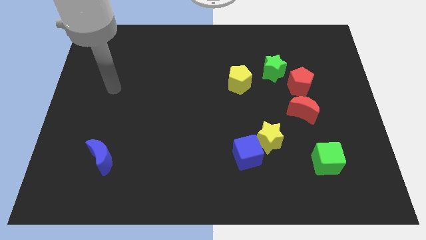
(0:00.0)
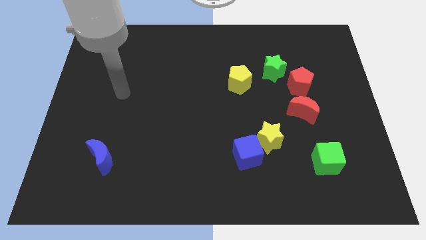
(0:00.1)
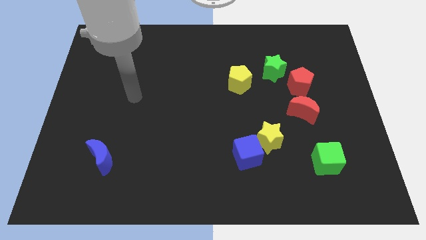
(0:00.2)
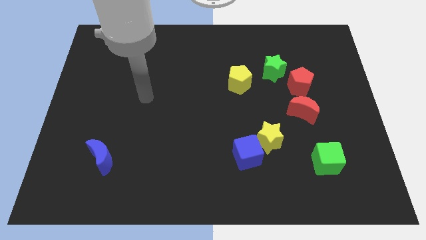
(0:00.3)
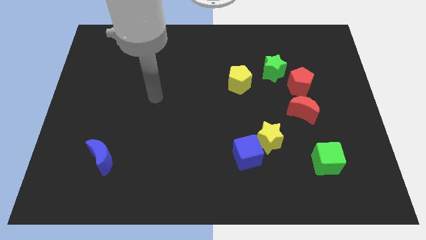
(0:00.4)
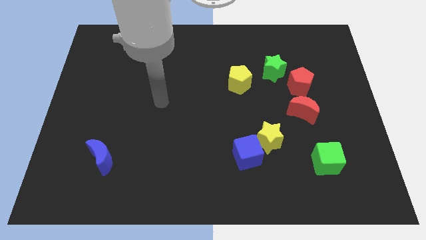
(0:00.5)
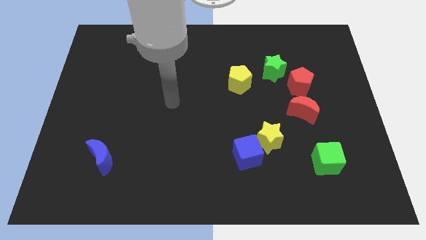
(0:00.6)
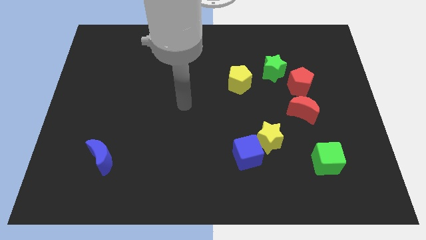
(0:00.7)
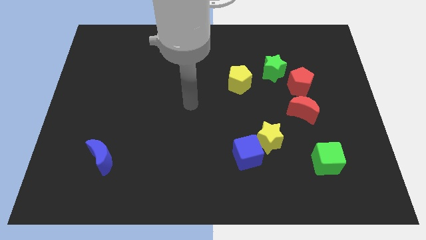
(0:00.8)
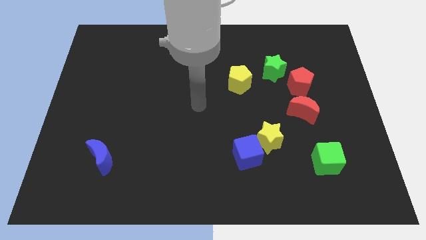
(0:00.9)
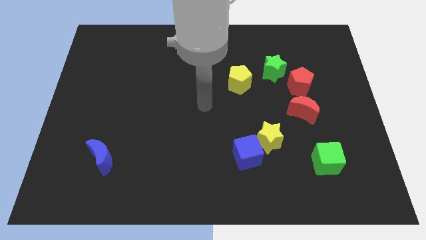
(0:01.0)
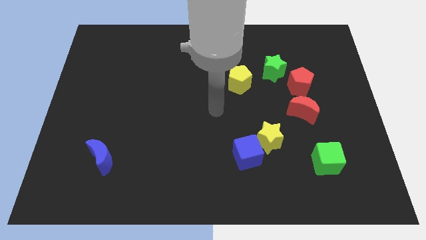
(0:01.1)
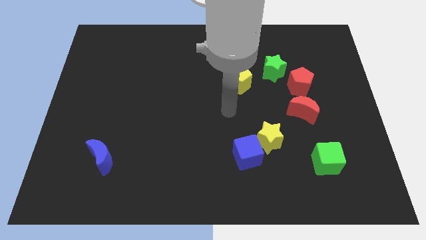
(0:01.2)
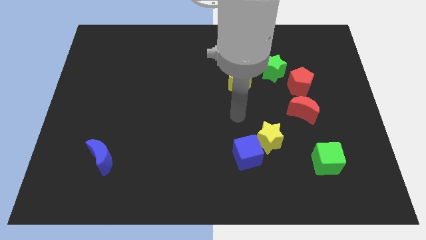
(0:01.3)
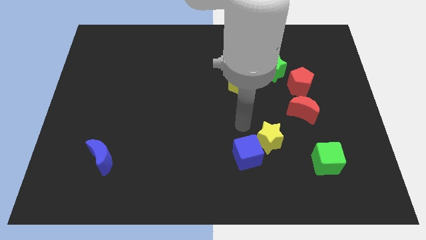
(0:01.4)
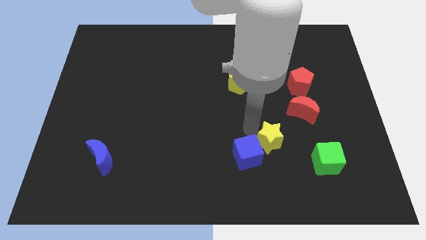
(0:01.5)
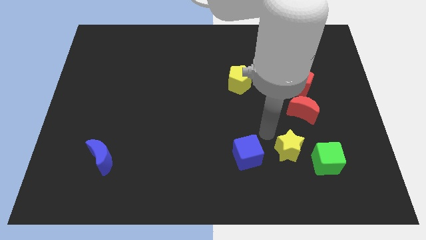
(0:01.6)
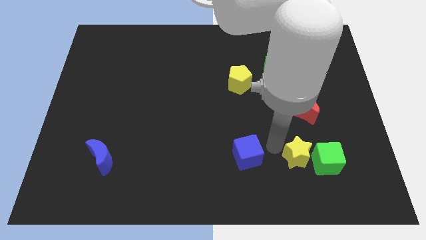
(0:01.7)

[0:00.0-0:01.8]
pull the blue cube apart from the yellow star

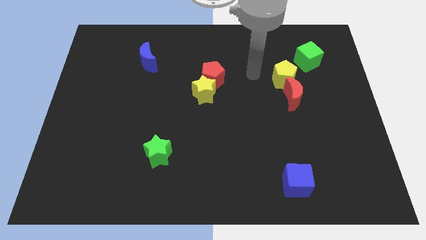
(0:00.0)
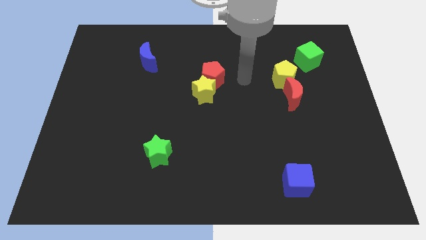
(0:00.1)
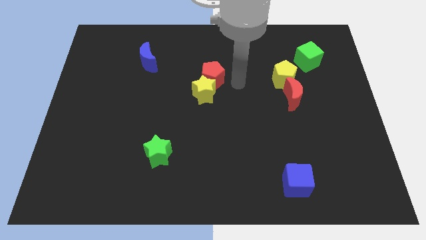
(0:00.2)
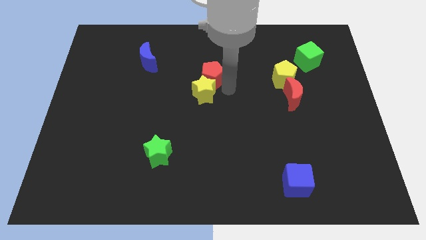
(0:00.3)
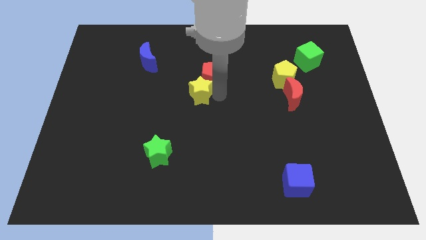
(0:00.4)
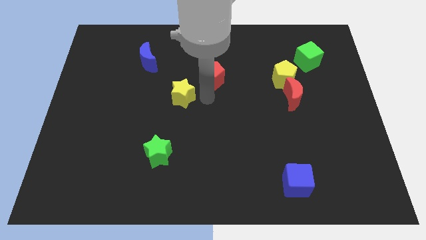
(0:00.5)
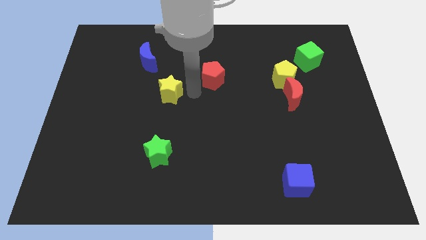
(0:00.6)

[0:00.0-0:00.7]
separate the red pentagon from the yellow star

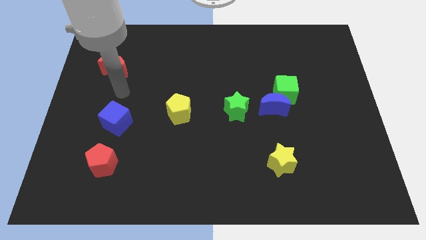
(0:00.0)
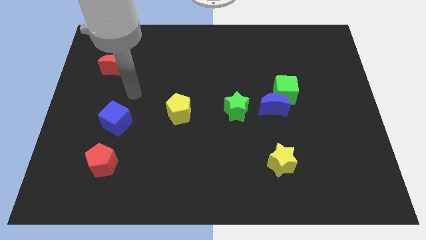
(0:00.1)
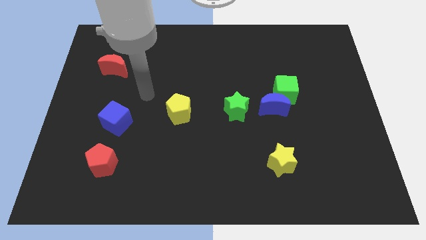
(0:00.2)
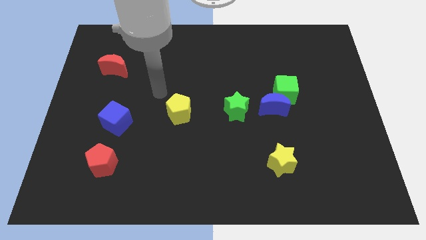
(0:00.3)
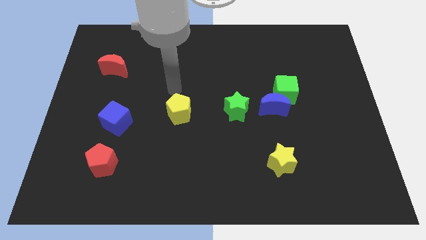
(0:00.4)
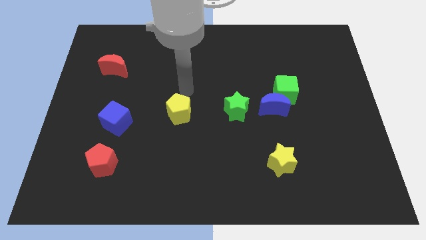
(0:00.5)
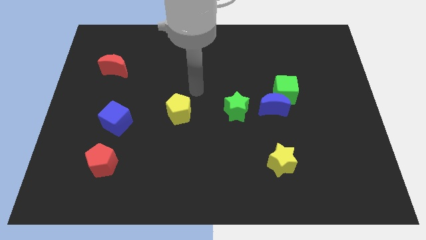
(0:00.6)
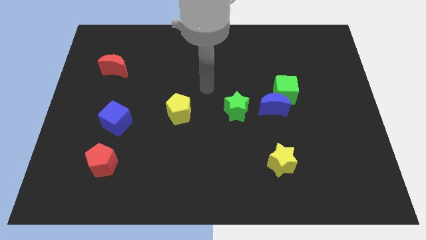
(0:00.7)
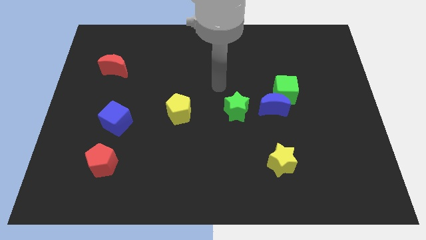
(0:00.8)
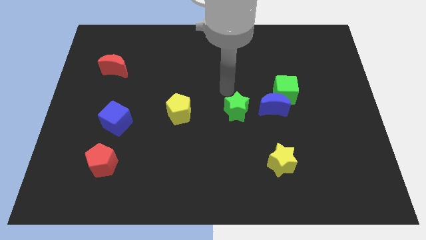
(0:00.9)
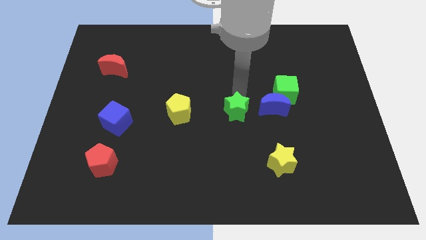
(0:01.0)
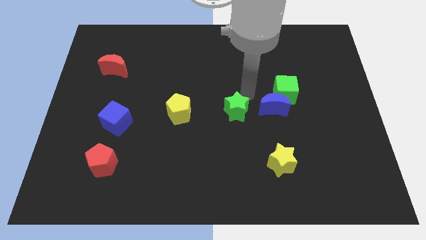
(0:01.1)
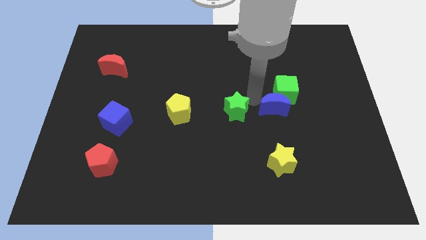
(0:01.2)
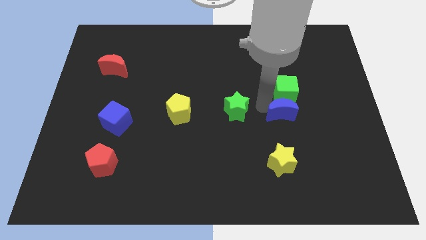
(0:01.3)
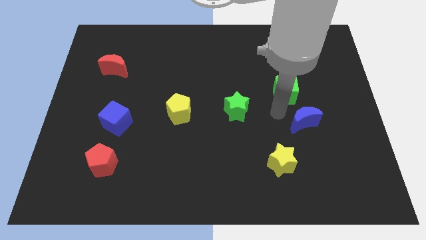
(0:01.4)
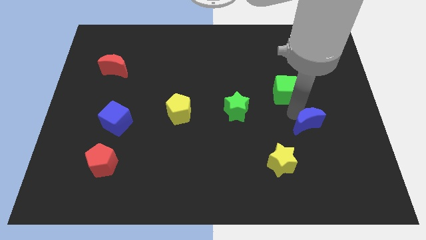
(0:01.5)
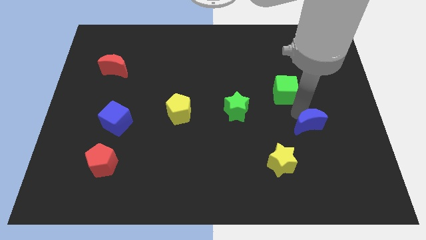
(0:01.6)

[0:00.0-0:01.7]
pull the green cube apart from the blue moon

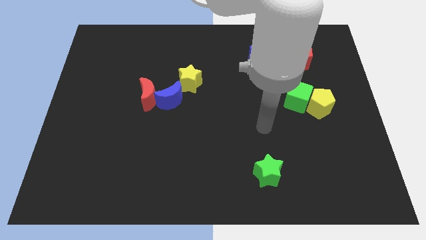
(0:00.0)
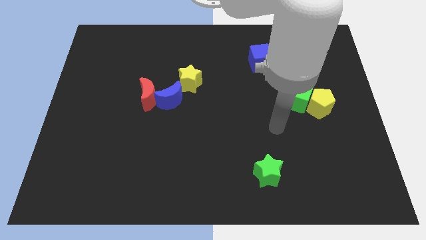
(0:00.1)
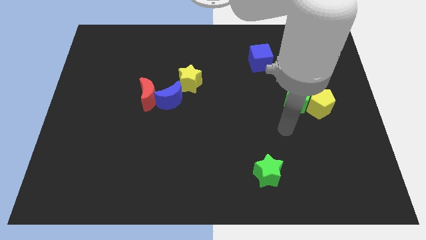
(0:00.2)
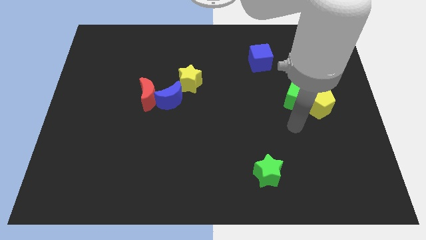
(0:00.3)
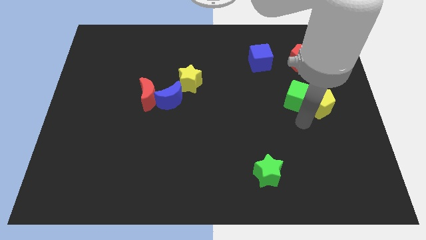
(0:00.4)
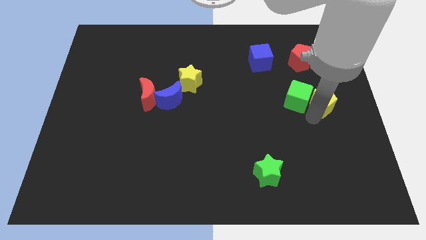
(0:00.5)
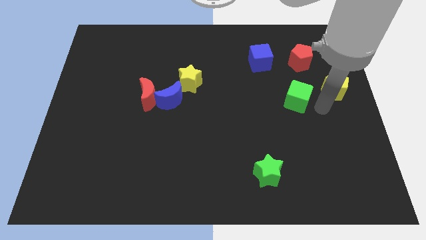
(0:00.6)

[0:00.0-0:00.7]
separate the green cube from the yellow pentagon

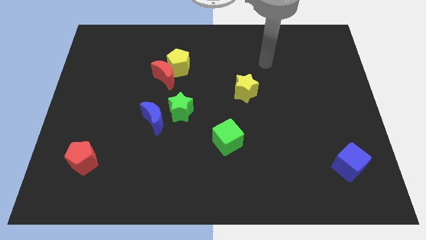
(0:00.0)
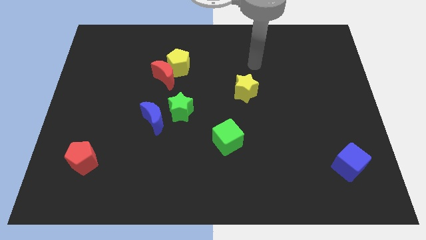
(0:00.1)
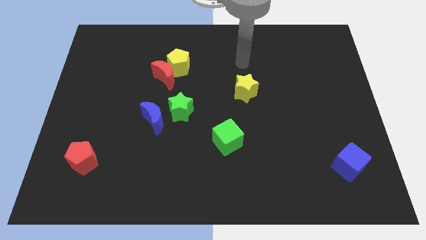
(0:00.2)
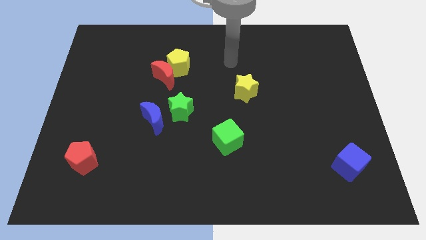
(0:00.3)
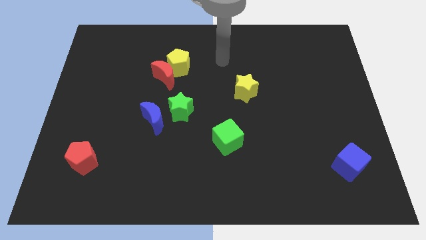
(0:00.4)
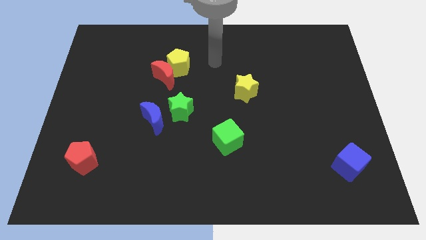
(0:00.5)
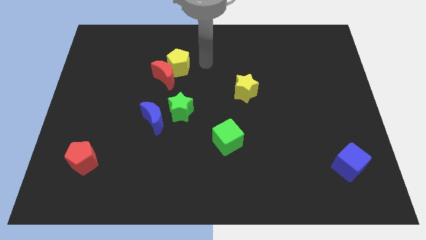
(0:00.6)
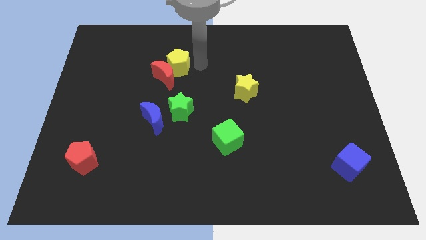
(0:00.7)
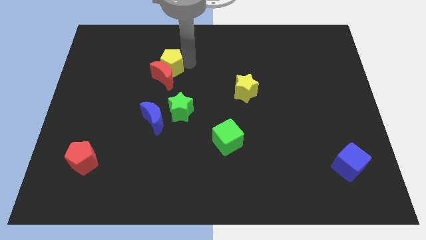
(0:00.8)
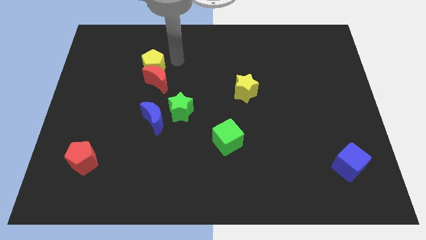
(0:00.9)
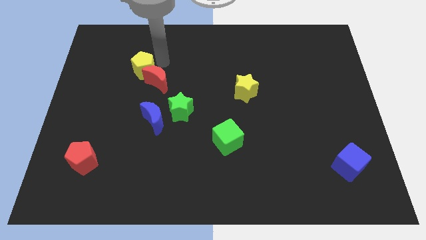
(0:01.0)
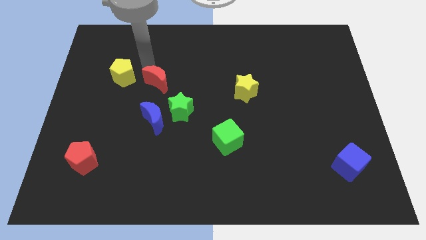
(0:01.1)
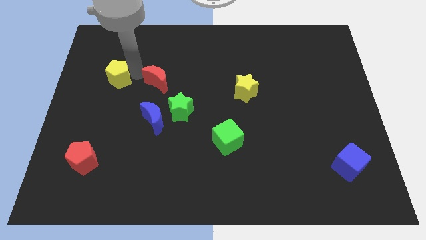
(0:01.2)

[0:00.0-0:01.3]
pull the red moon apart from the yellow pentagon

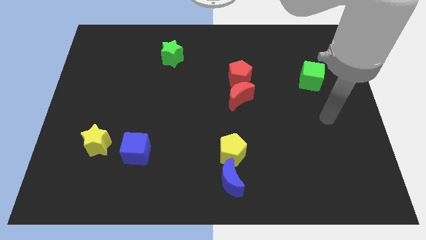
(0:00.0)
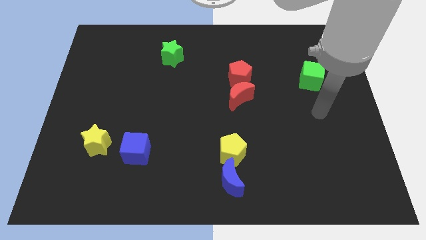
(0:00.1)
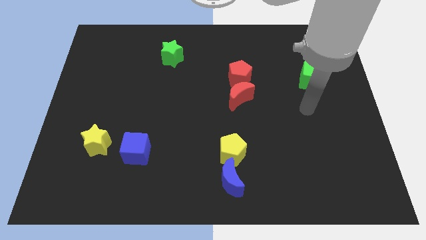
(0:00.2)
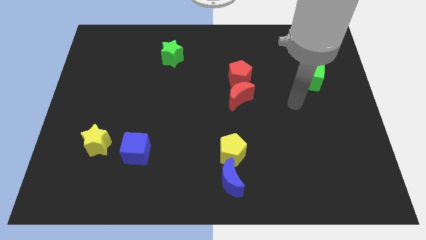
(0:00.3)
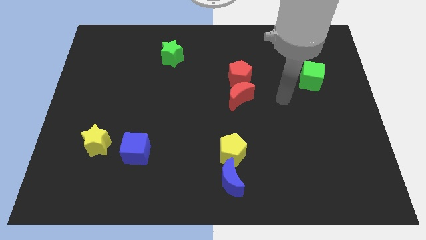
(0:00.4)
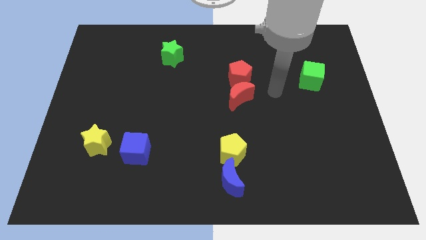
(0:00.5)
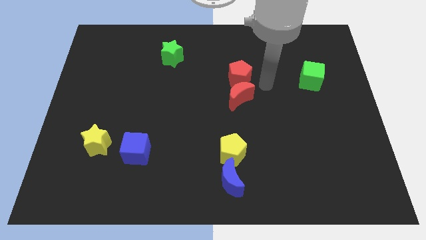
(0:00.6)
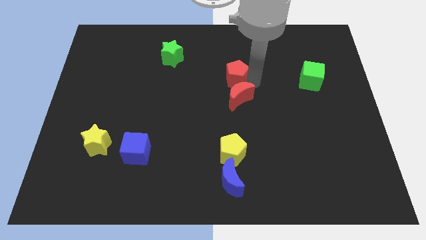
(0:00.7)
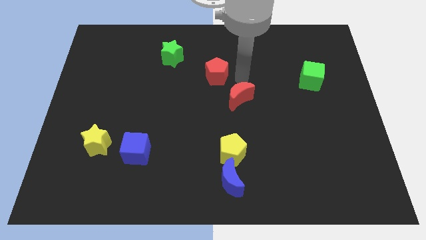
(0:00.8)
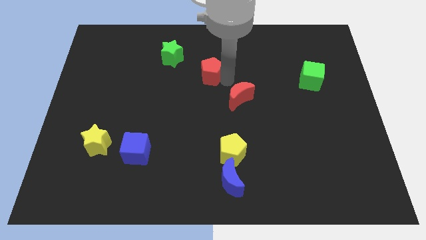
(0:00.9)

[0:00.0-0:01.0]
separate the red moon from the red pentagon

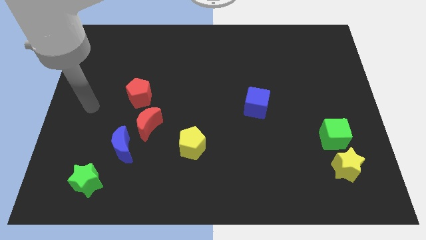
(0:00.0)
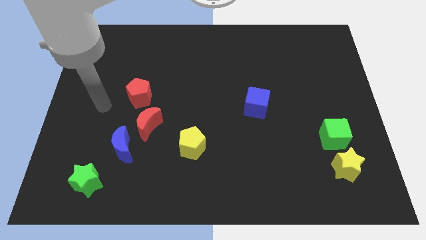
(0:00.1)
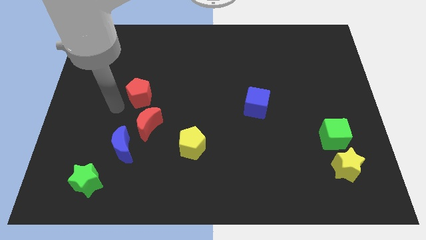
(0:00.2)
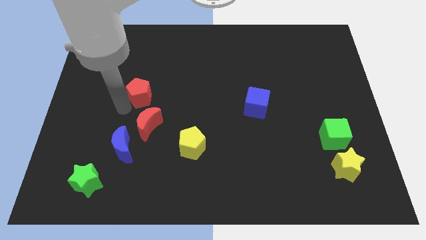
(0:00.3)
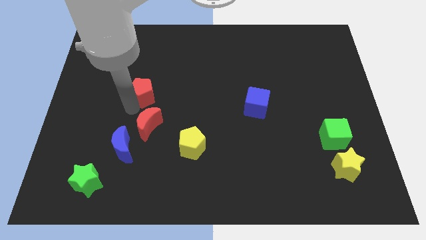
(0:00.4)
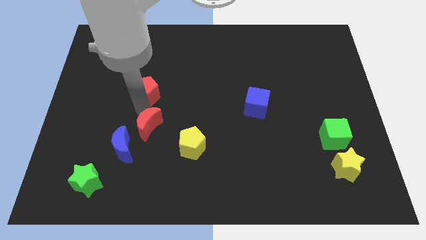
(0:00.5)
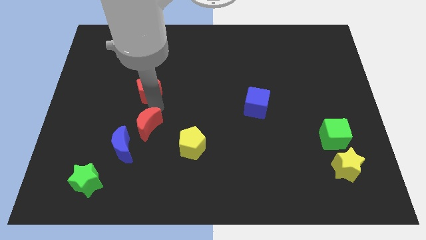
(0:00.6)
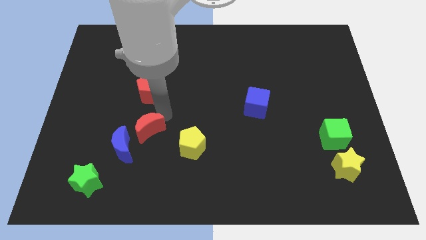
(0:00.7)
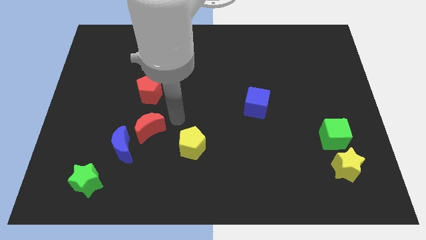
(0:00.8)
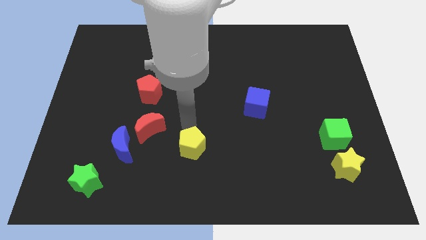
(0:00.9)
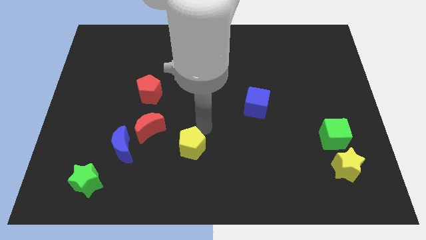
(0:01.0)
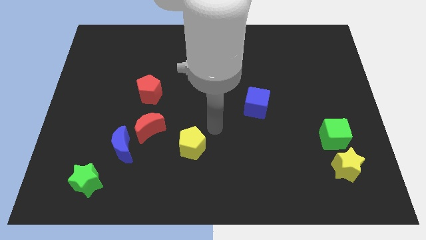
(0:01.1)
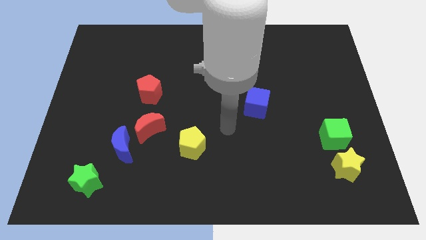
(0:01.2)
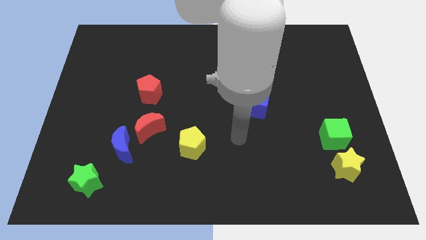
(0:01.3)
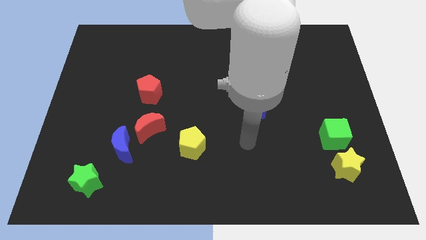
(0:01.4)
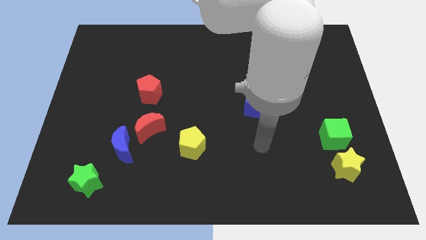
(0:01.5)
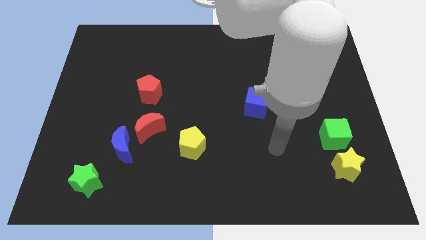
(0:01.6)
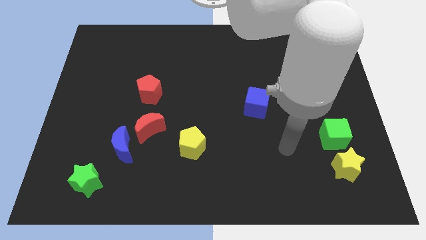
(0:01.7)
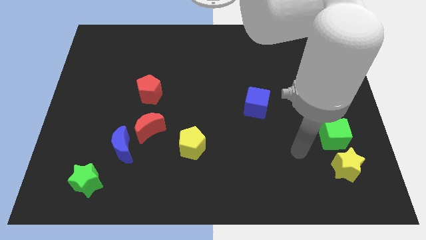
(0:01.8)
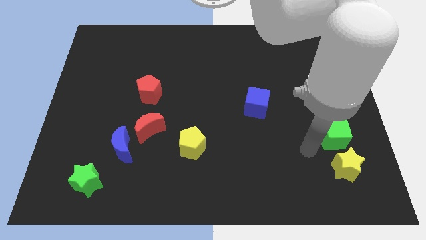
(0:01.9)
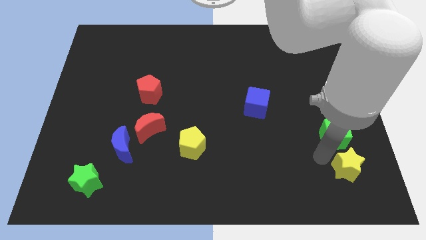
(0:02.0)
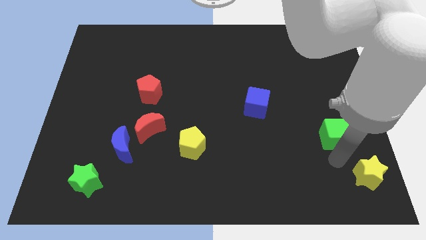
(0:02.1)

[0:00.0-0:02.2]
separate the green cube from the yellow star
